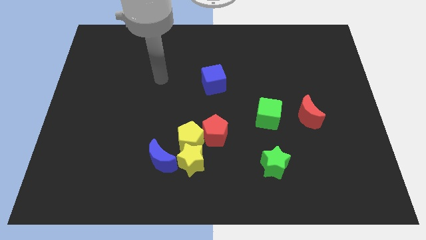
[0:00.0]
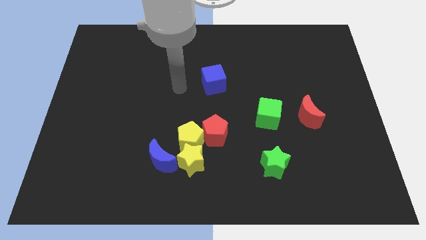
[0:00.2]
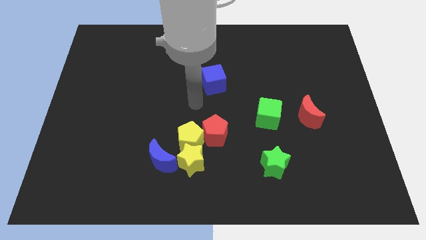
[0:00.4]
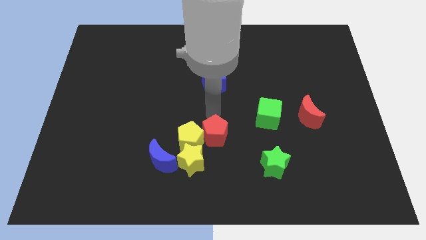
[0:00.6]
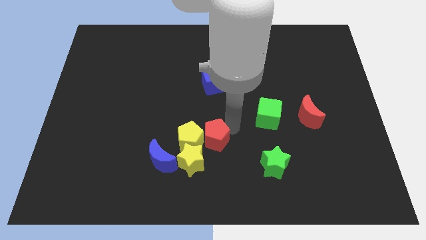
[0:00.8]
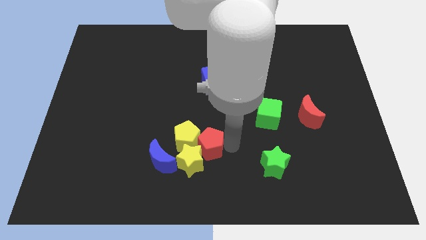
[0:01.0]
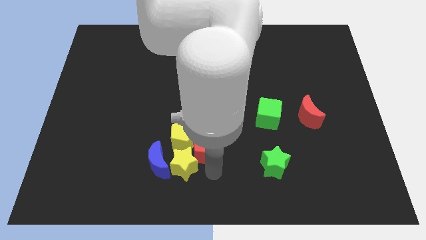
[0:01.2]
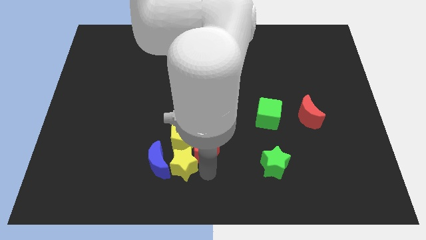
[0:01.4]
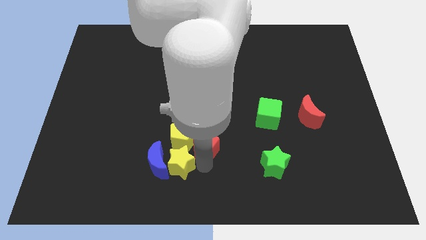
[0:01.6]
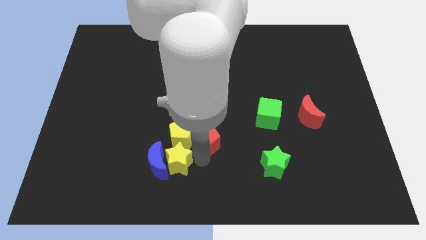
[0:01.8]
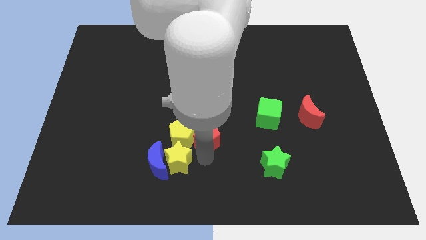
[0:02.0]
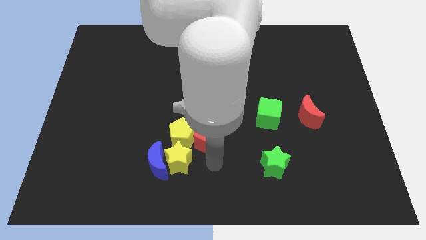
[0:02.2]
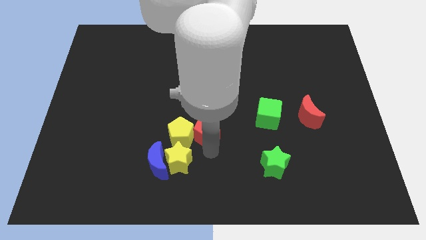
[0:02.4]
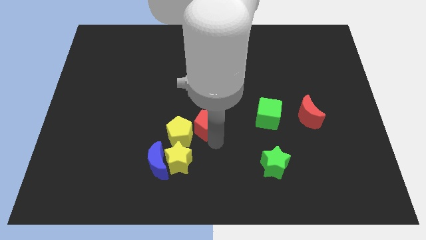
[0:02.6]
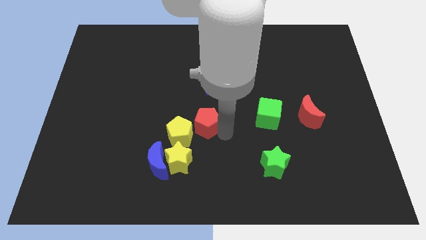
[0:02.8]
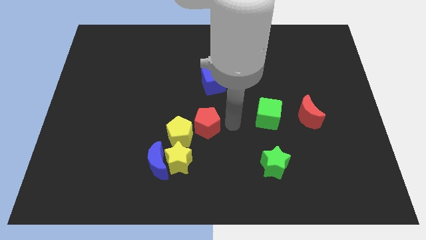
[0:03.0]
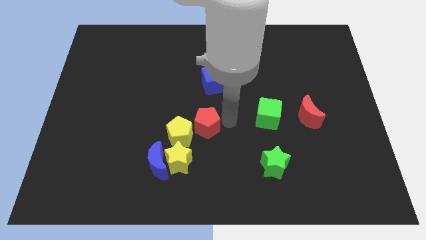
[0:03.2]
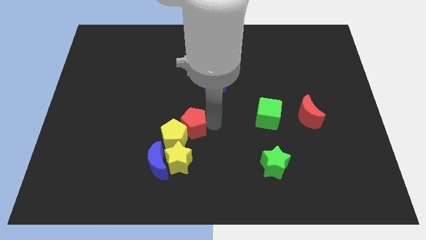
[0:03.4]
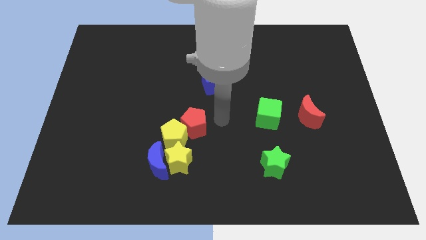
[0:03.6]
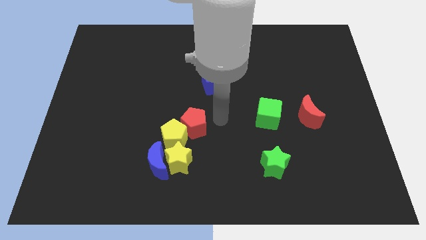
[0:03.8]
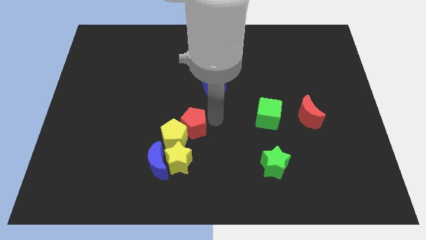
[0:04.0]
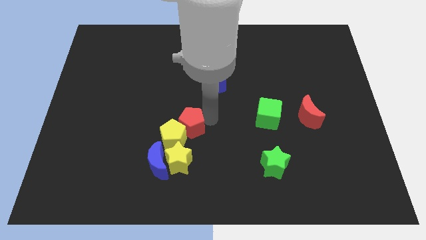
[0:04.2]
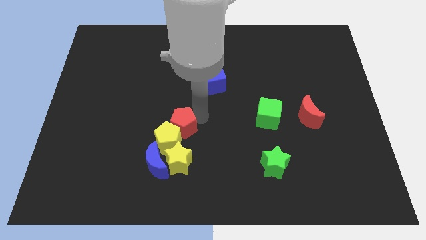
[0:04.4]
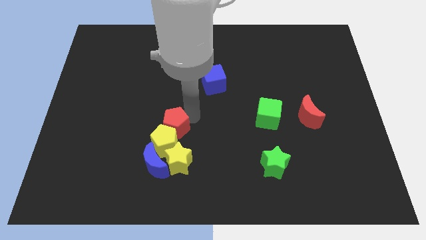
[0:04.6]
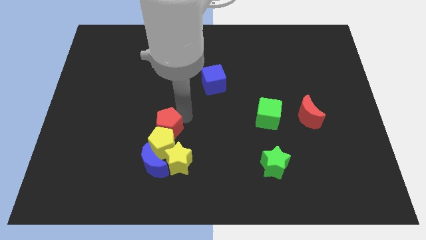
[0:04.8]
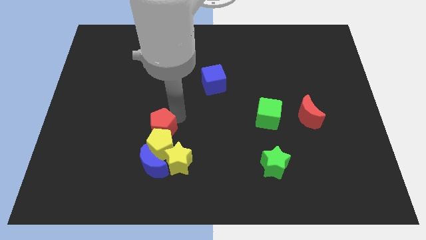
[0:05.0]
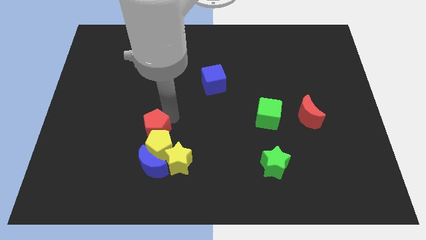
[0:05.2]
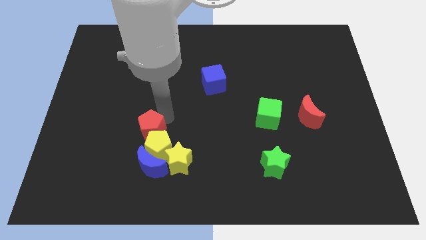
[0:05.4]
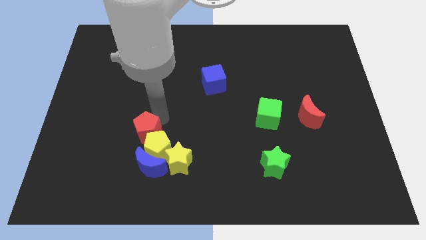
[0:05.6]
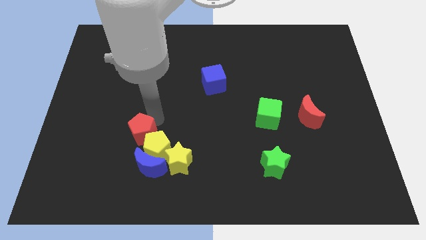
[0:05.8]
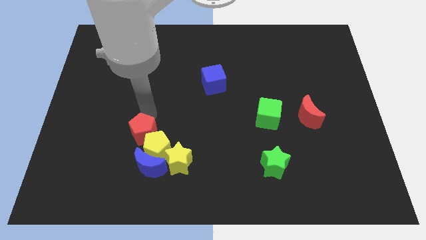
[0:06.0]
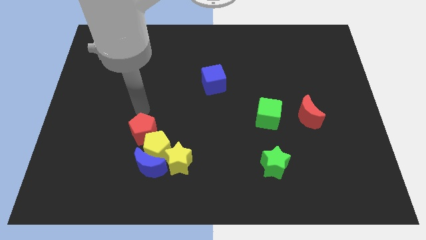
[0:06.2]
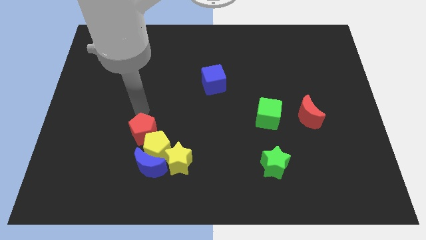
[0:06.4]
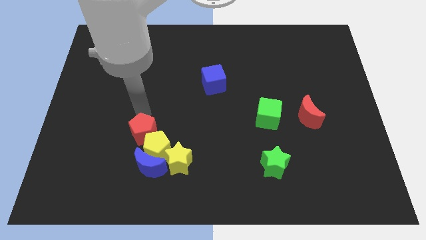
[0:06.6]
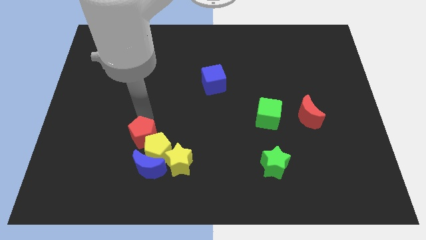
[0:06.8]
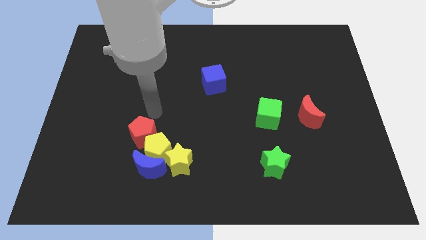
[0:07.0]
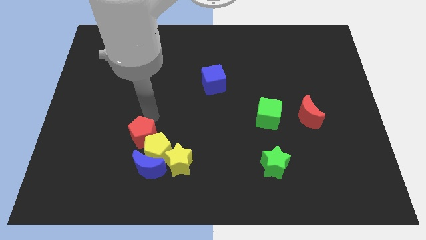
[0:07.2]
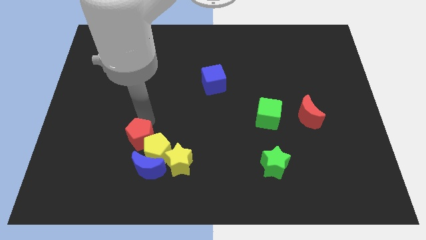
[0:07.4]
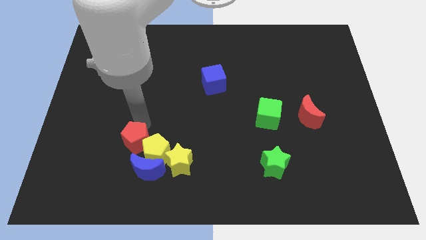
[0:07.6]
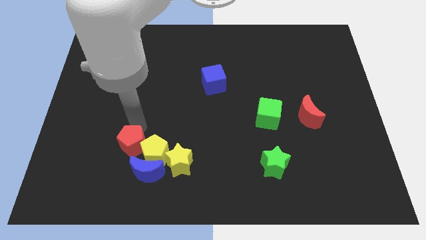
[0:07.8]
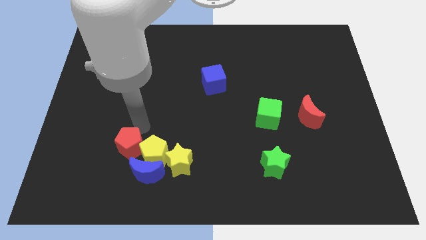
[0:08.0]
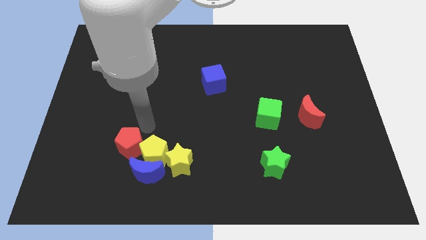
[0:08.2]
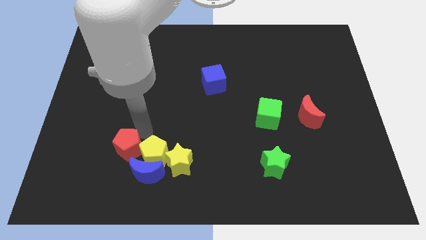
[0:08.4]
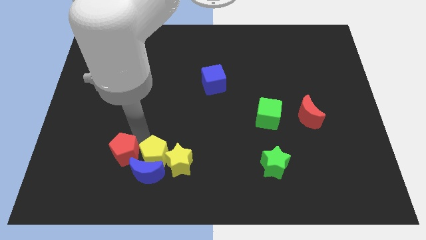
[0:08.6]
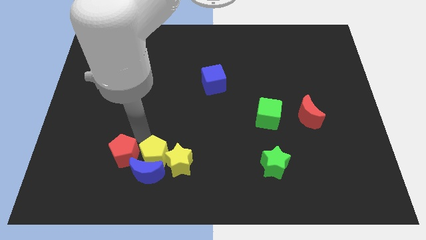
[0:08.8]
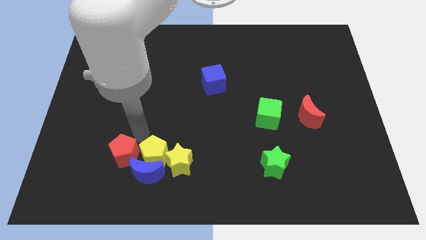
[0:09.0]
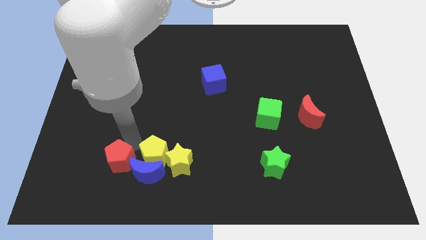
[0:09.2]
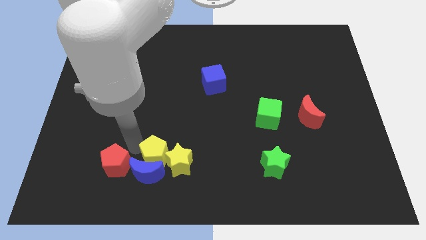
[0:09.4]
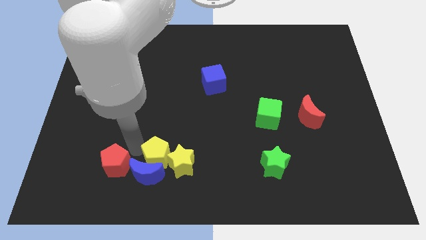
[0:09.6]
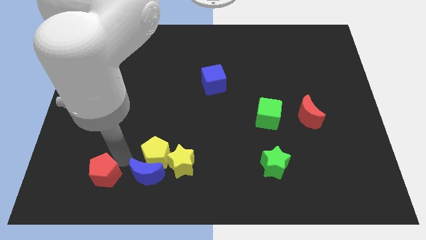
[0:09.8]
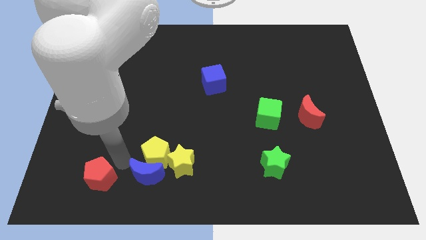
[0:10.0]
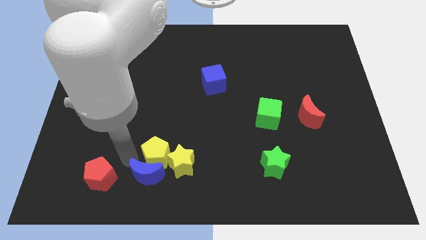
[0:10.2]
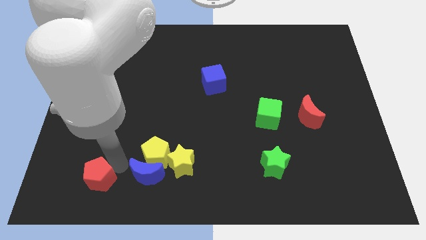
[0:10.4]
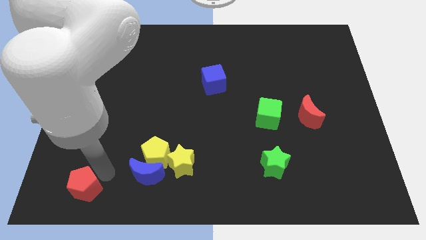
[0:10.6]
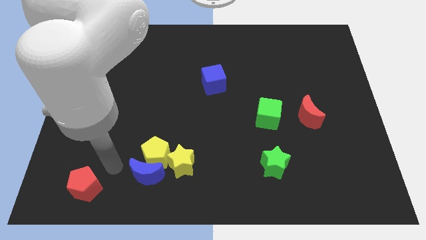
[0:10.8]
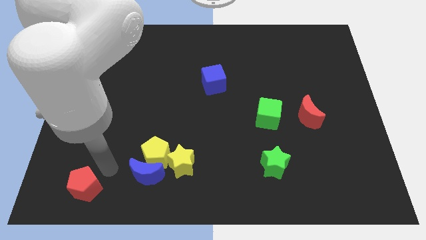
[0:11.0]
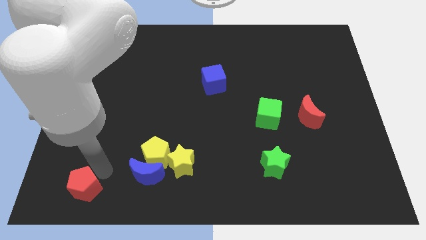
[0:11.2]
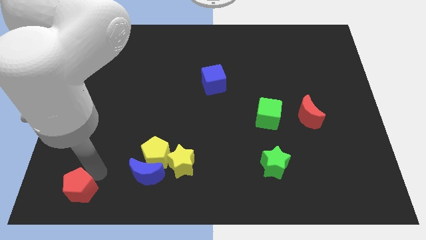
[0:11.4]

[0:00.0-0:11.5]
put the red pentagon to the bottom left

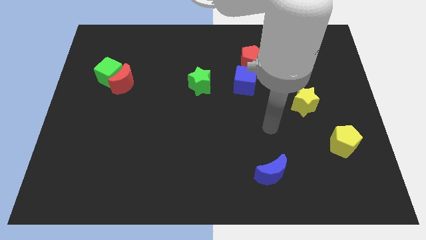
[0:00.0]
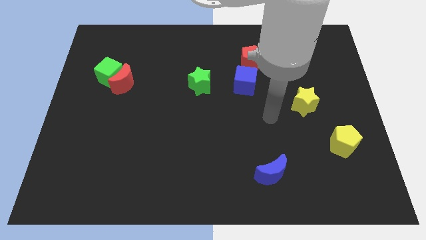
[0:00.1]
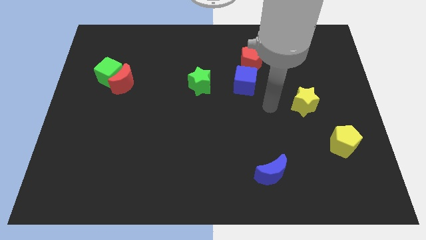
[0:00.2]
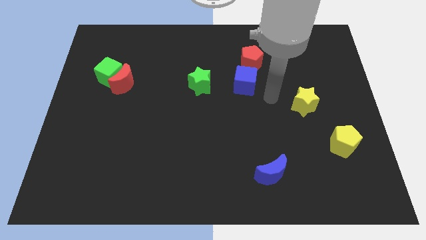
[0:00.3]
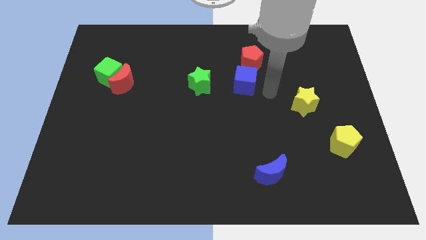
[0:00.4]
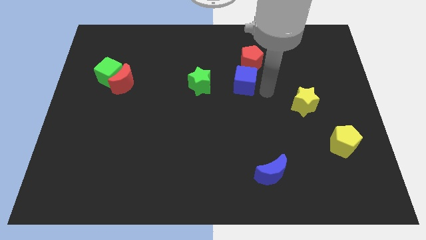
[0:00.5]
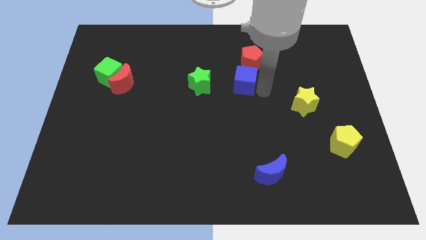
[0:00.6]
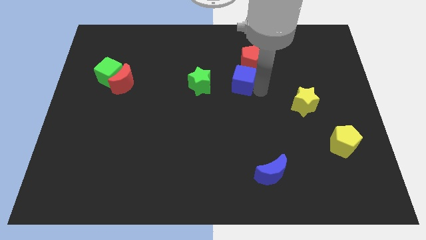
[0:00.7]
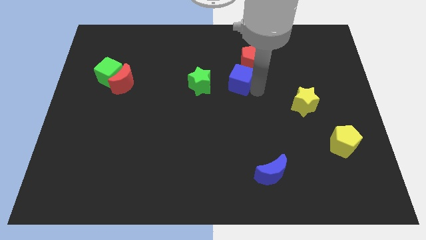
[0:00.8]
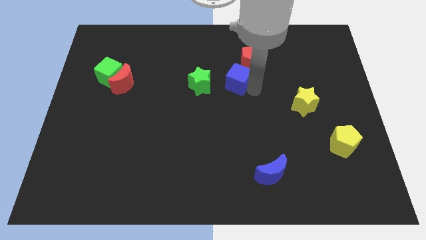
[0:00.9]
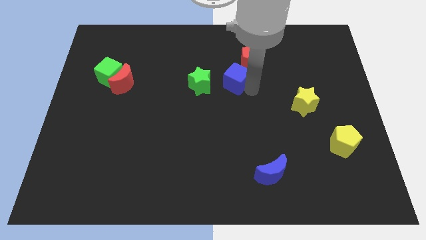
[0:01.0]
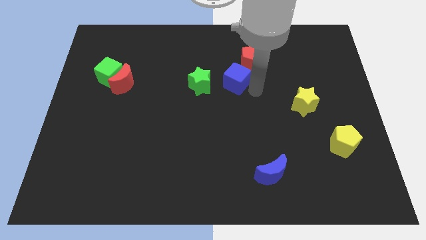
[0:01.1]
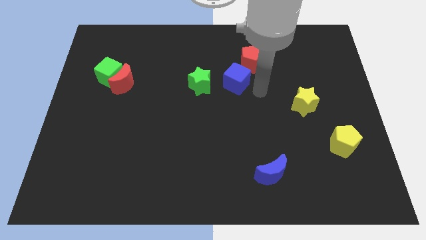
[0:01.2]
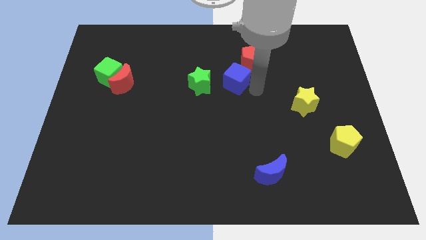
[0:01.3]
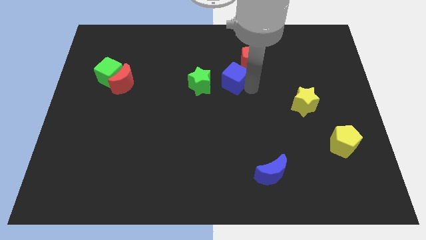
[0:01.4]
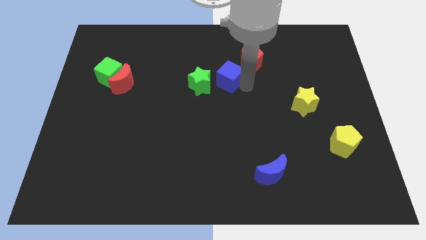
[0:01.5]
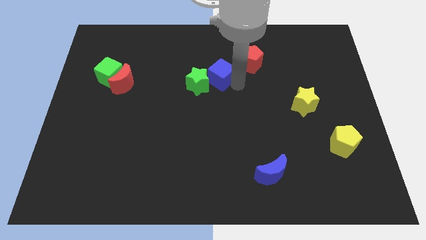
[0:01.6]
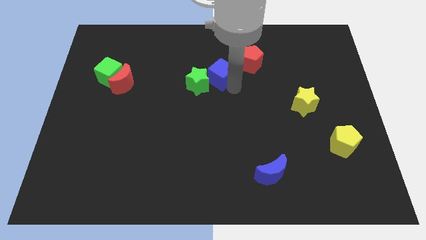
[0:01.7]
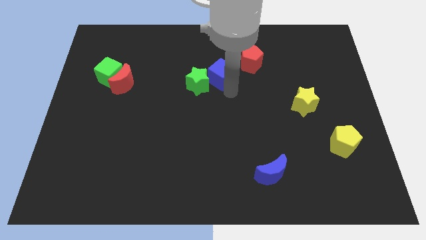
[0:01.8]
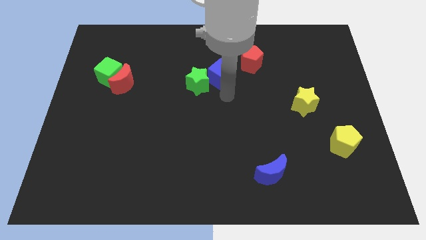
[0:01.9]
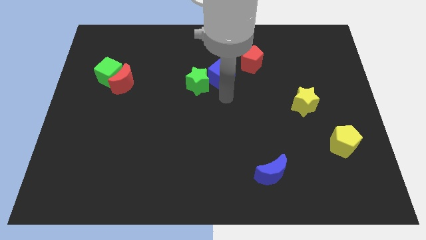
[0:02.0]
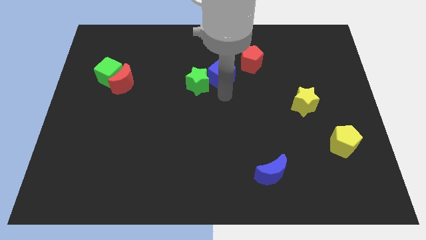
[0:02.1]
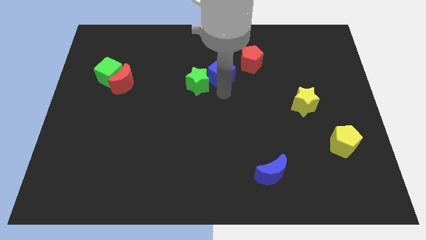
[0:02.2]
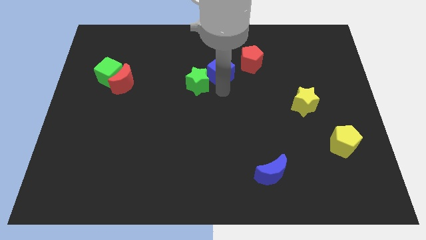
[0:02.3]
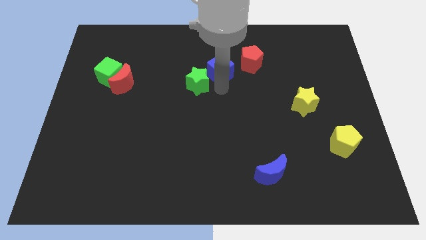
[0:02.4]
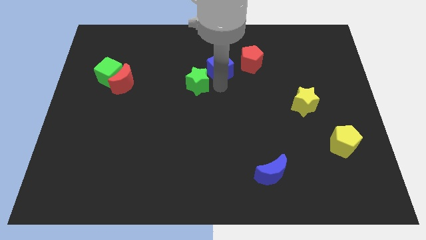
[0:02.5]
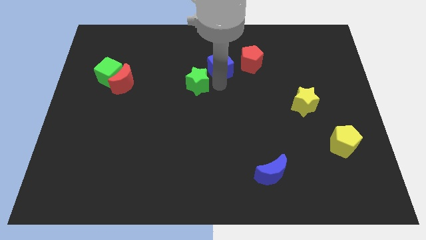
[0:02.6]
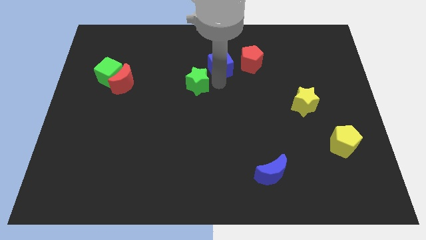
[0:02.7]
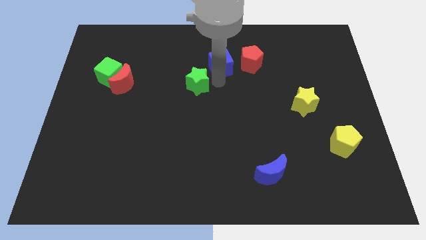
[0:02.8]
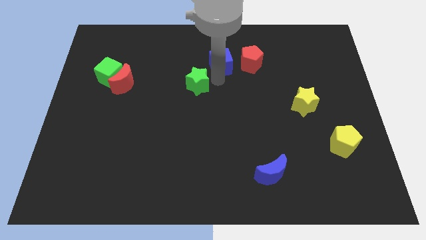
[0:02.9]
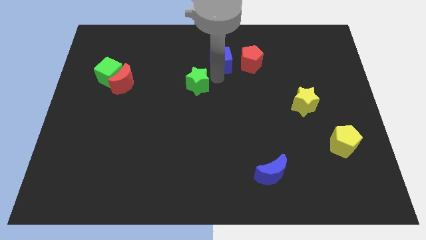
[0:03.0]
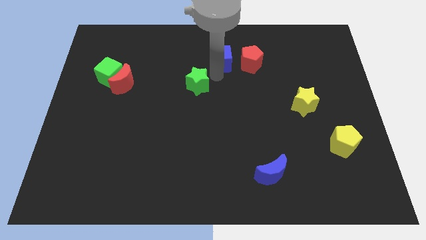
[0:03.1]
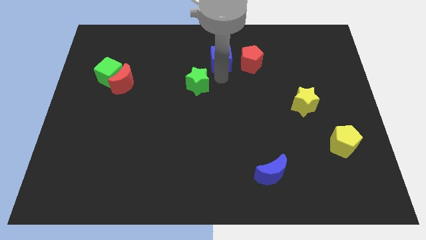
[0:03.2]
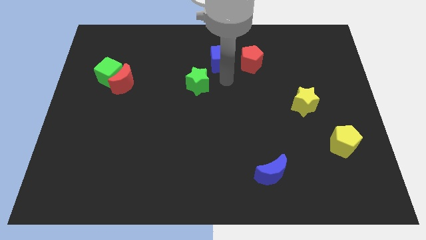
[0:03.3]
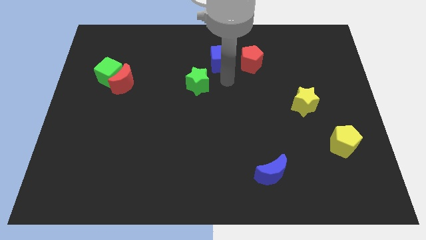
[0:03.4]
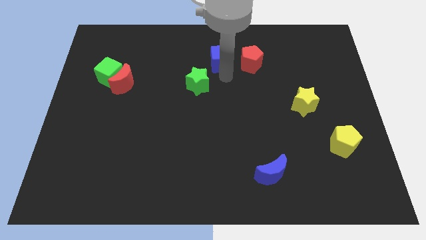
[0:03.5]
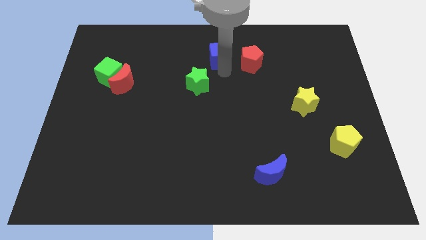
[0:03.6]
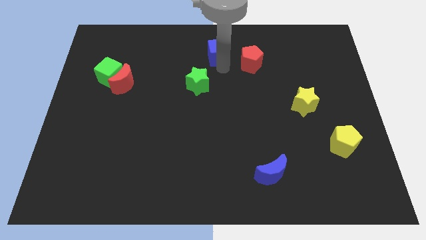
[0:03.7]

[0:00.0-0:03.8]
move the blue cube to the top
